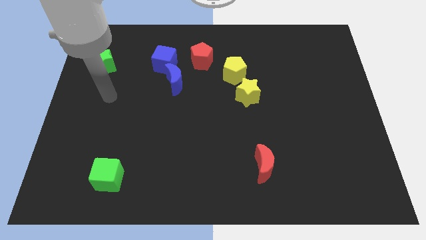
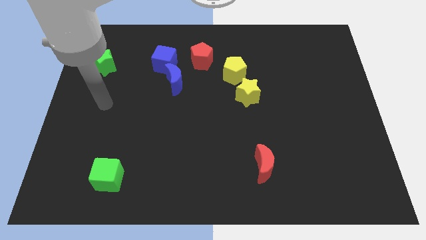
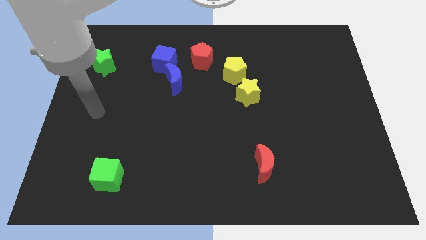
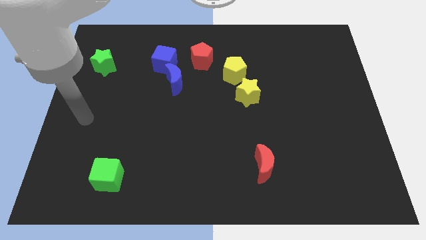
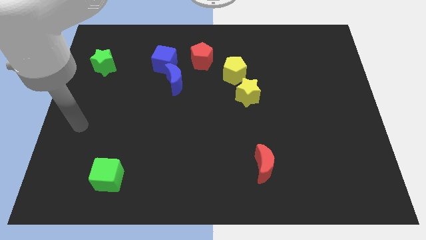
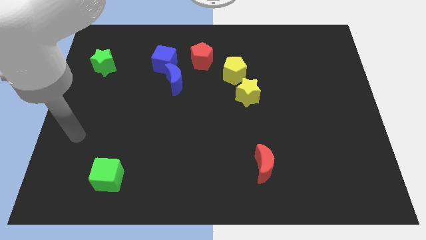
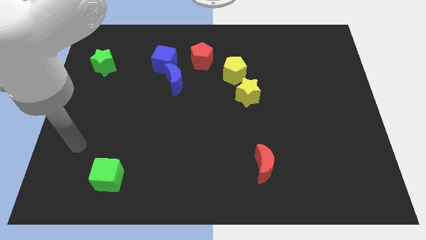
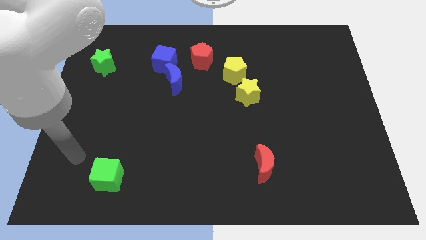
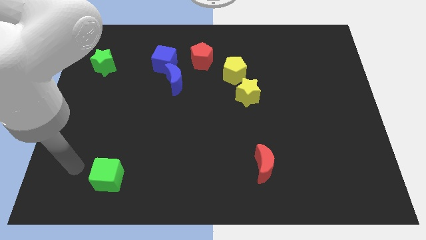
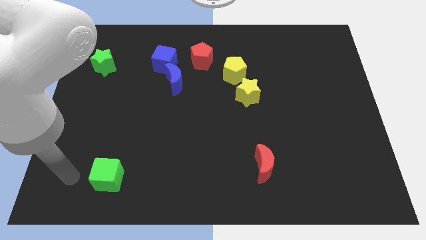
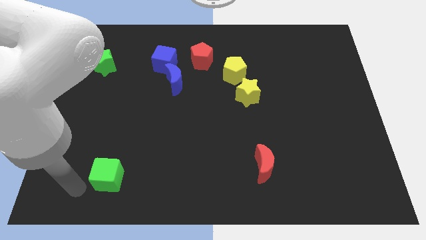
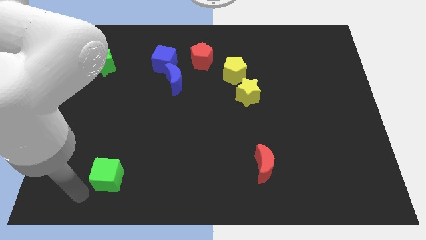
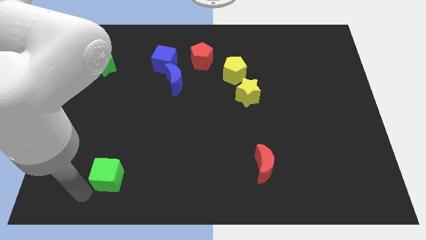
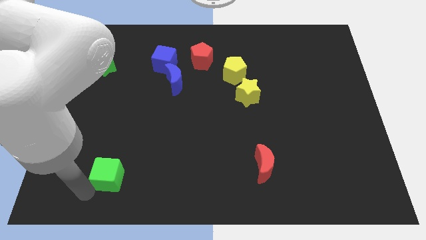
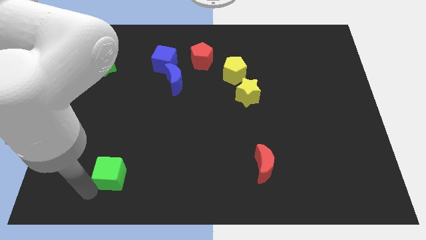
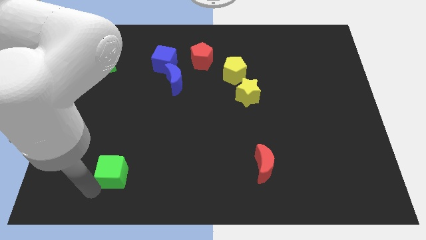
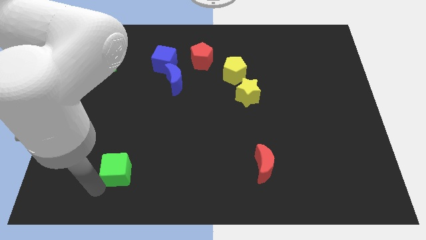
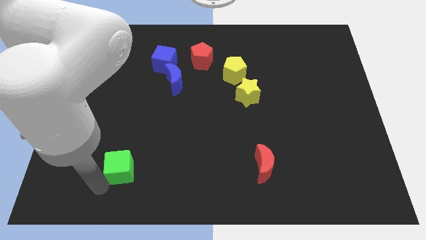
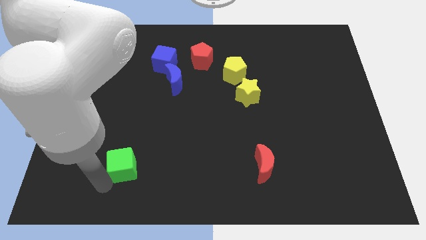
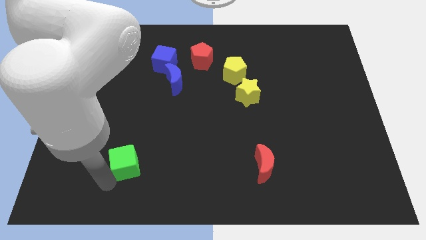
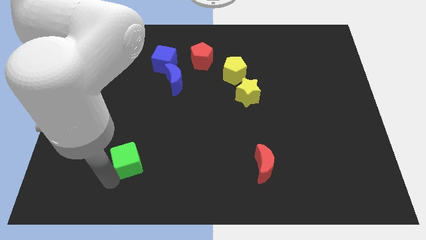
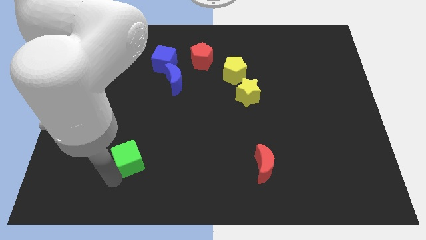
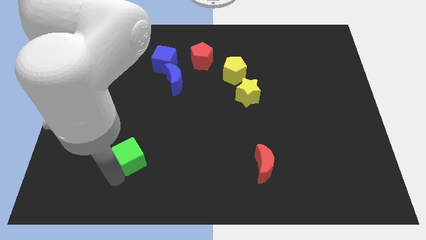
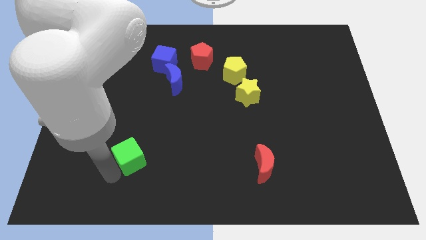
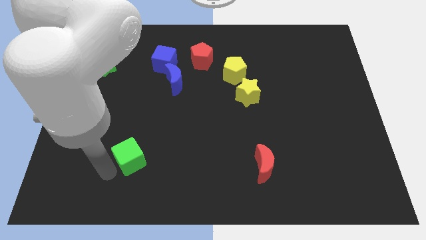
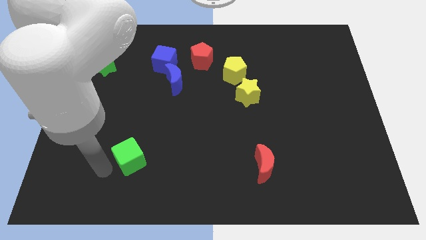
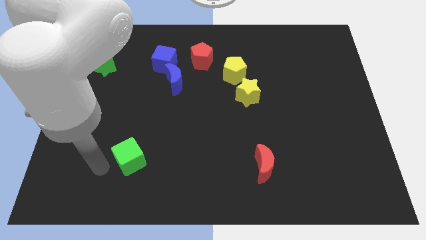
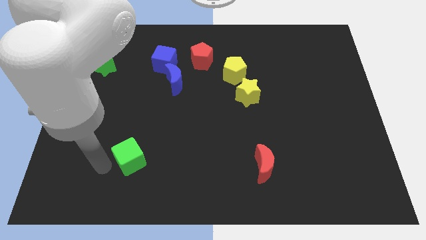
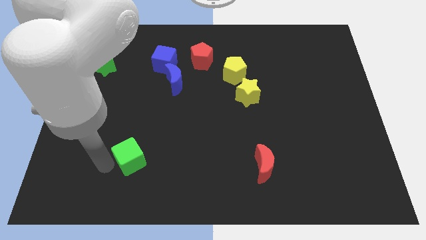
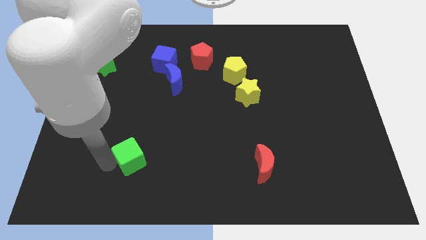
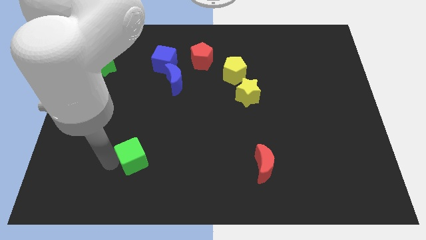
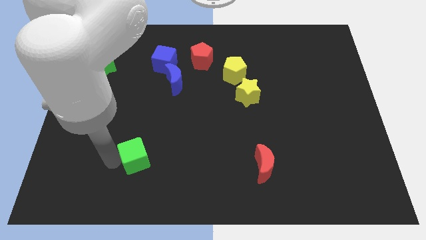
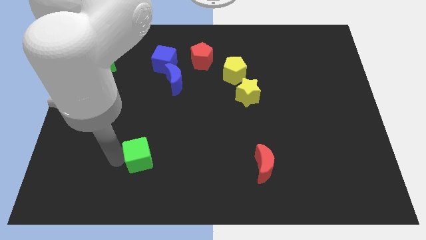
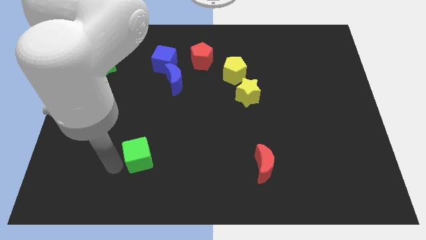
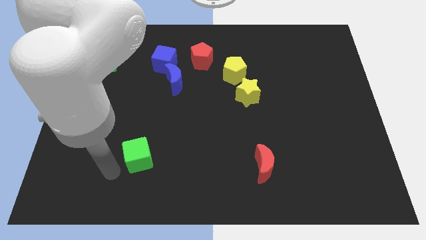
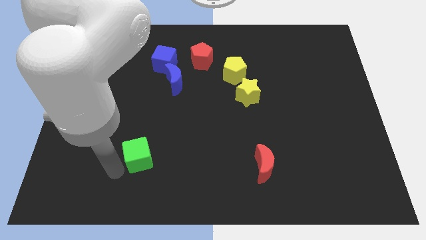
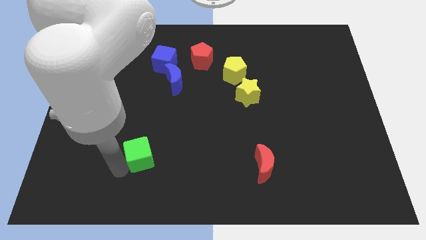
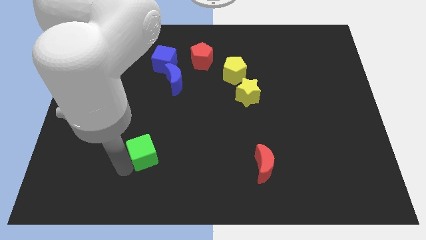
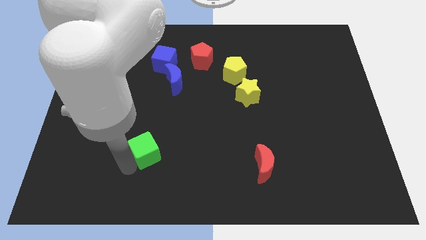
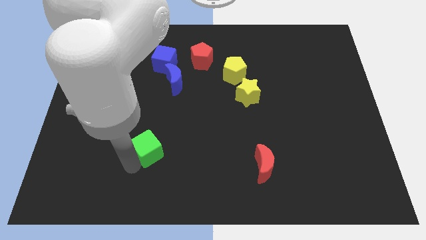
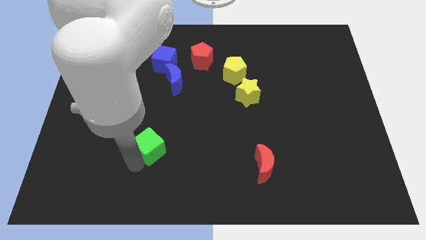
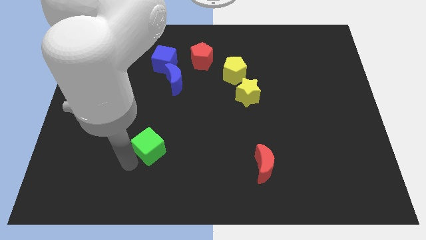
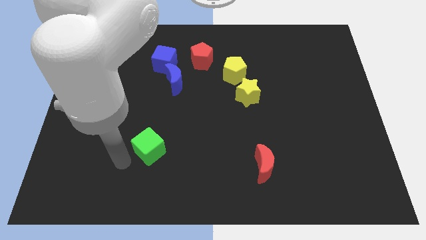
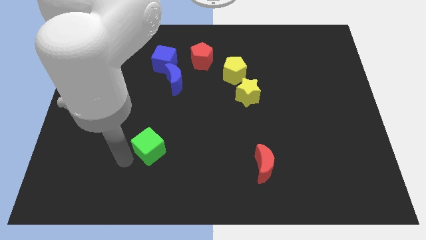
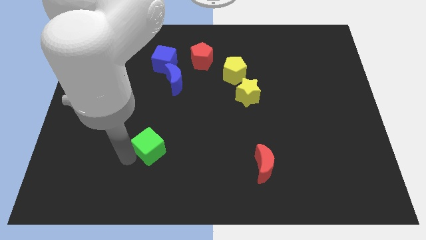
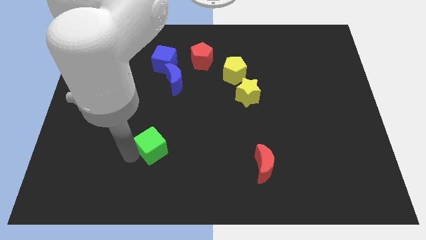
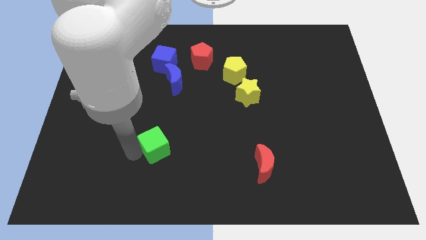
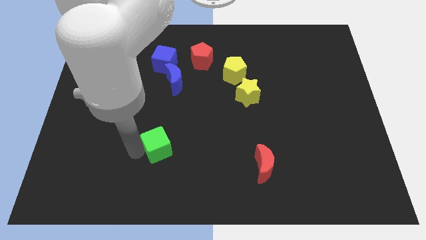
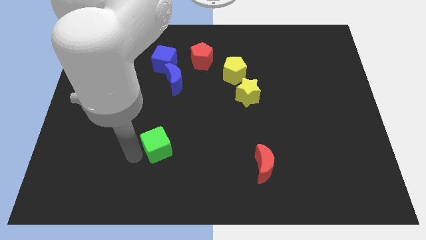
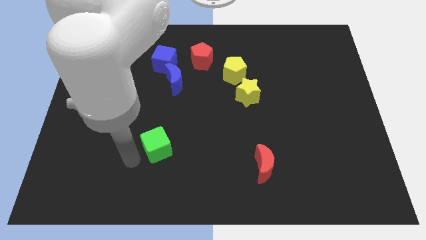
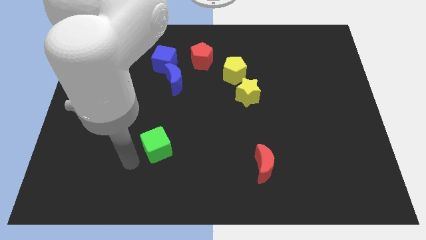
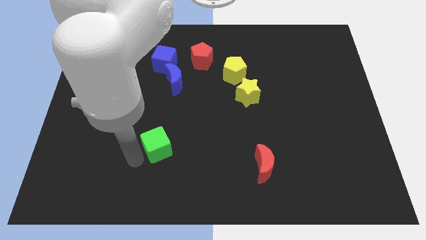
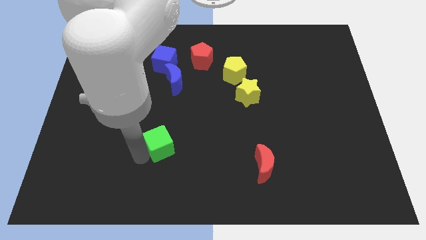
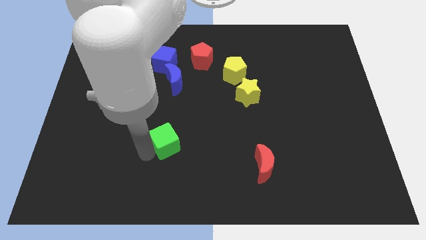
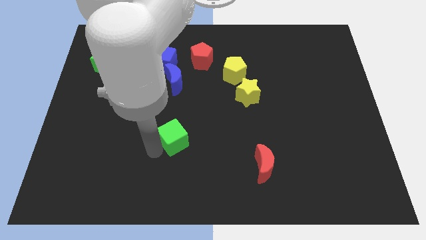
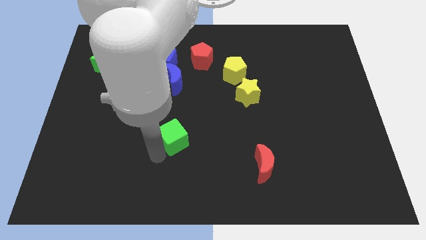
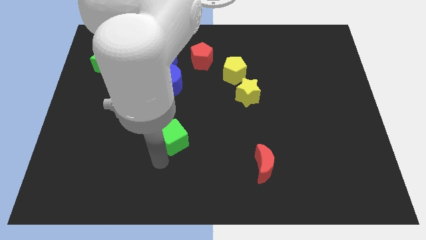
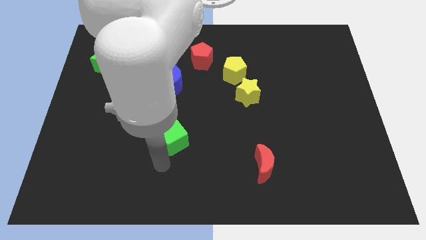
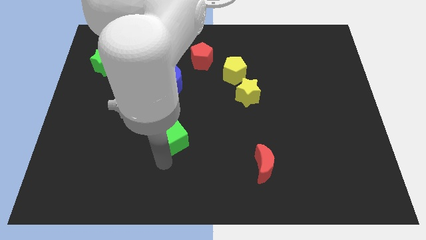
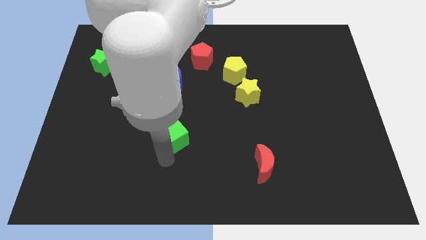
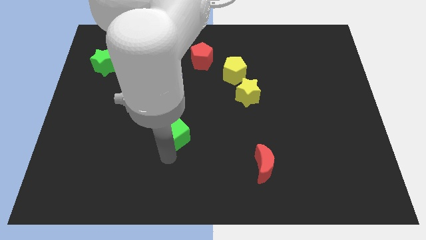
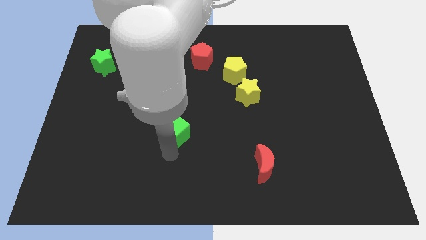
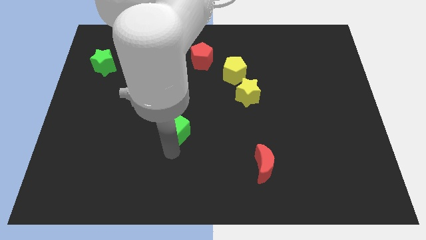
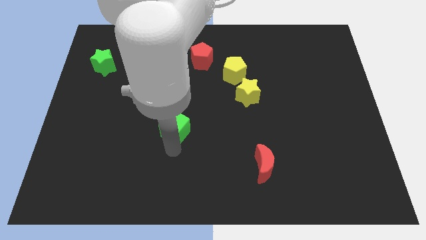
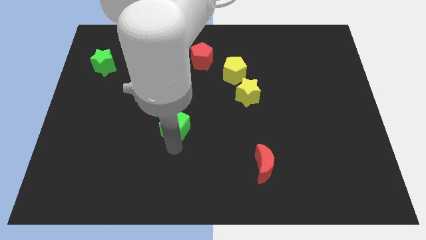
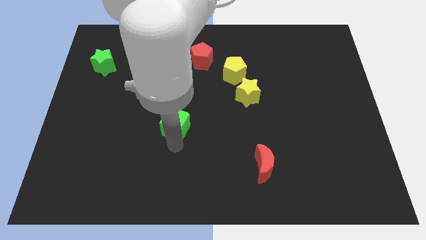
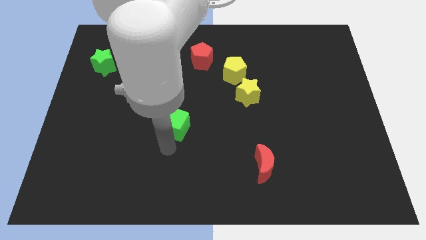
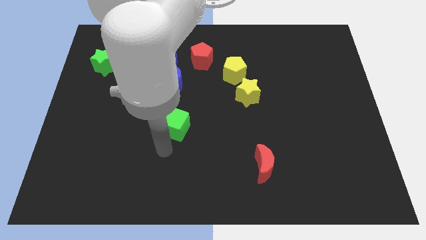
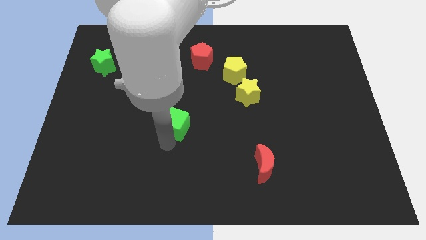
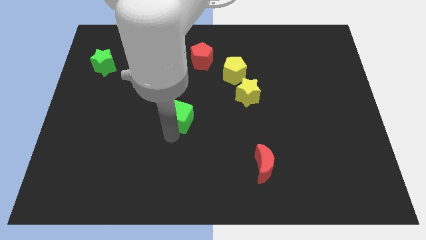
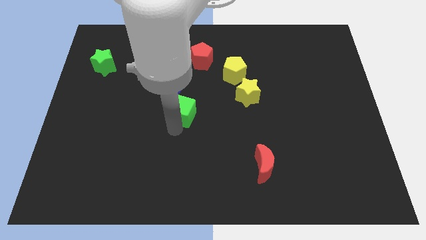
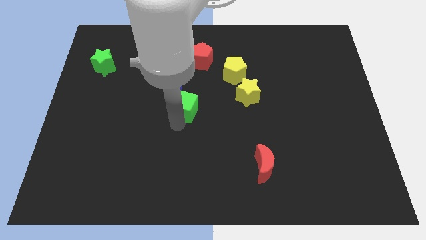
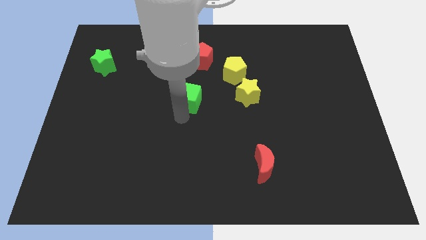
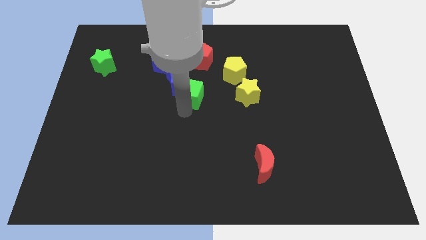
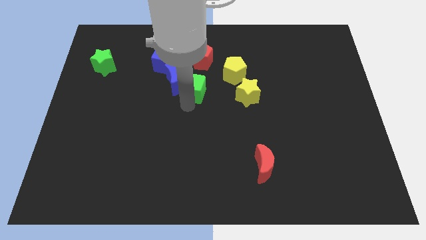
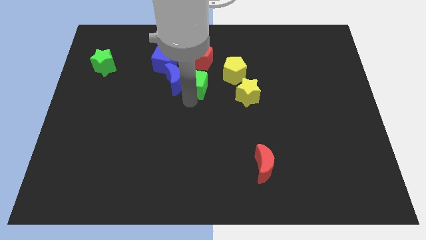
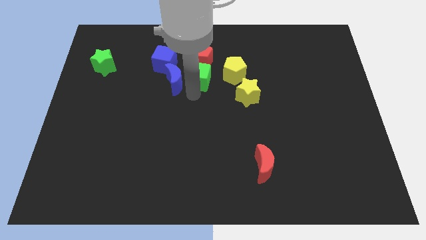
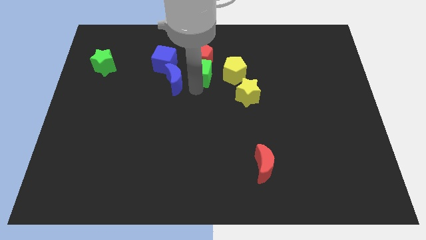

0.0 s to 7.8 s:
move the green cube close to the red pentagon
